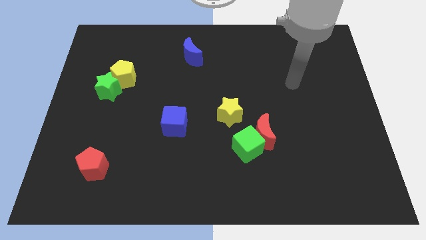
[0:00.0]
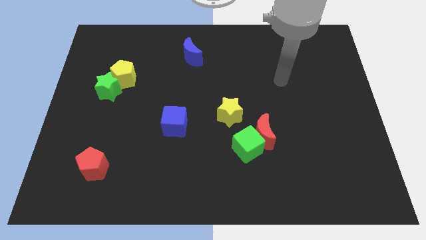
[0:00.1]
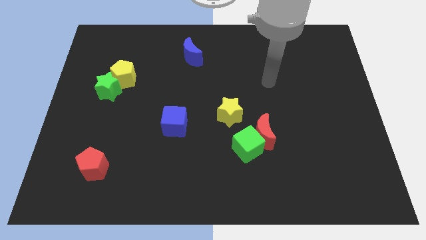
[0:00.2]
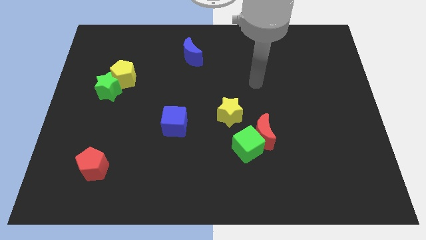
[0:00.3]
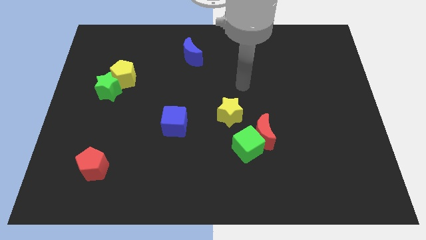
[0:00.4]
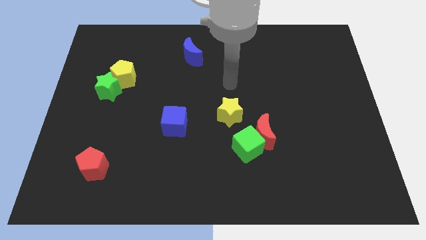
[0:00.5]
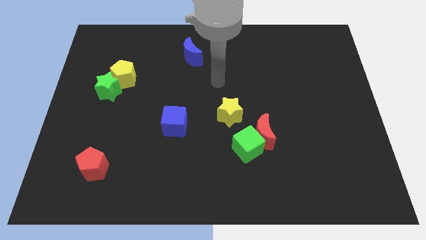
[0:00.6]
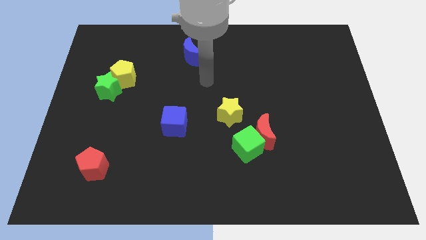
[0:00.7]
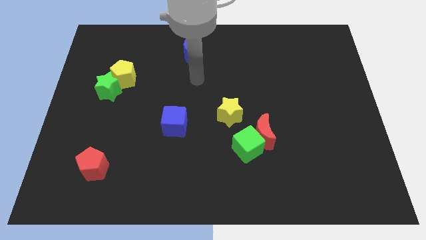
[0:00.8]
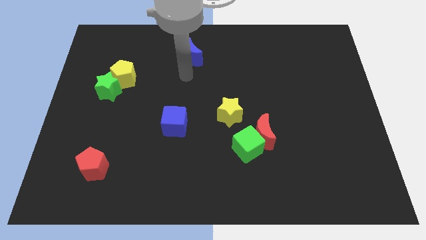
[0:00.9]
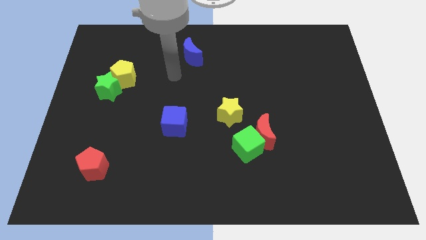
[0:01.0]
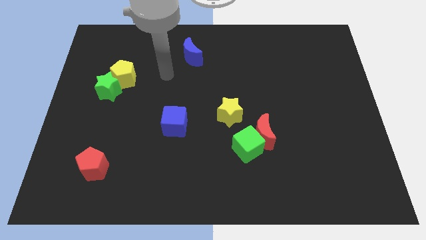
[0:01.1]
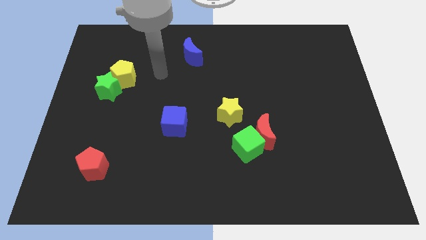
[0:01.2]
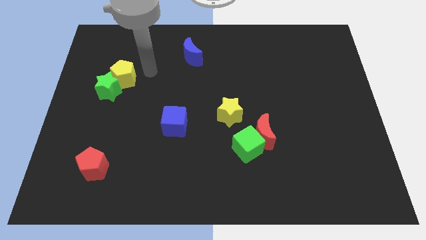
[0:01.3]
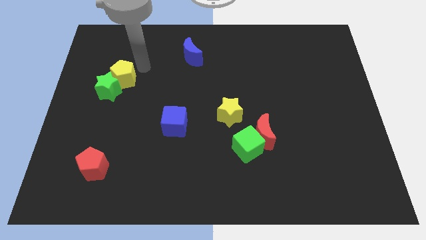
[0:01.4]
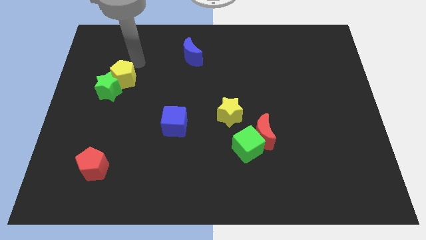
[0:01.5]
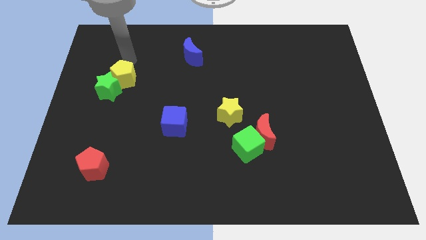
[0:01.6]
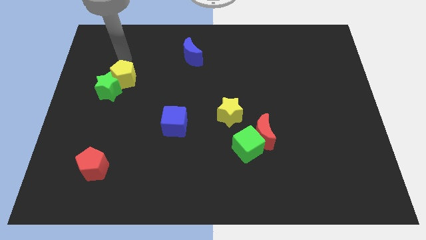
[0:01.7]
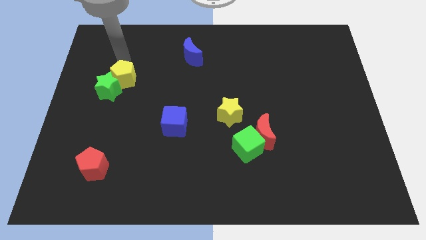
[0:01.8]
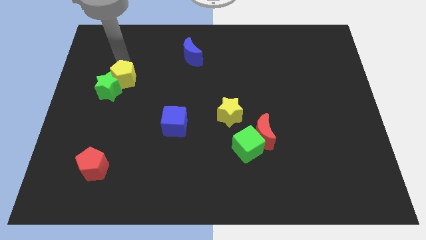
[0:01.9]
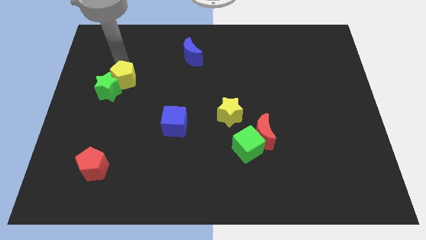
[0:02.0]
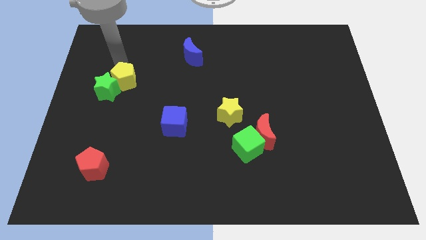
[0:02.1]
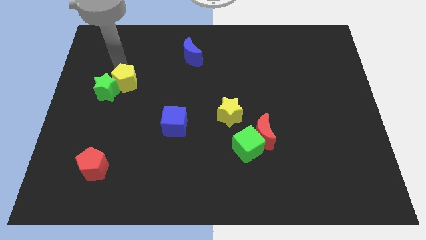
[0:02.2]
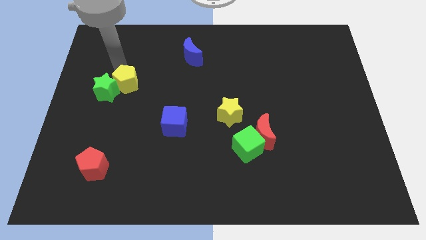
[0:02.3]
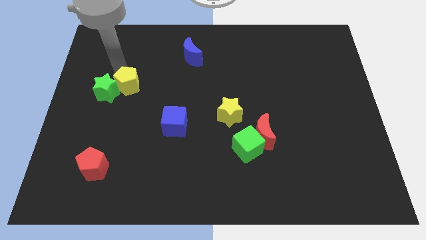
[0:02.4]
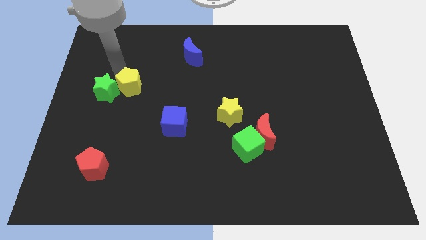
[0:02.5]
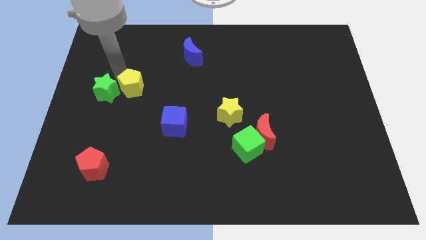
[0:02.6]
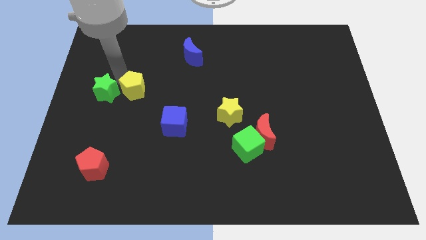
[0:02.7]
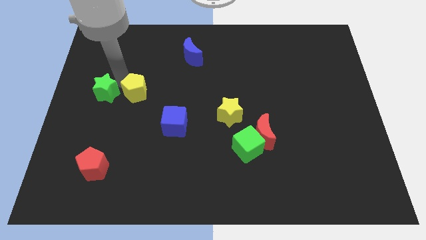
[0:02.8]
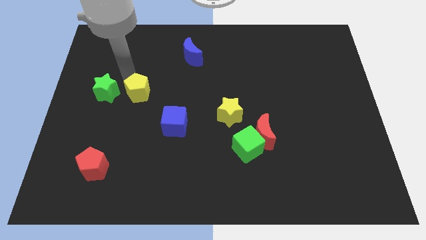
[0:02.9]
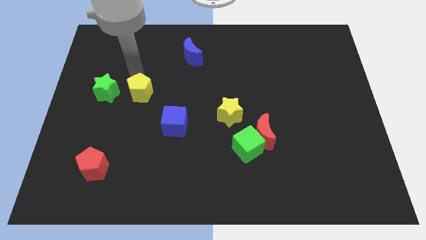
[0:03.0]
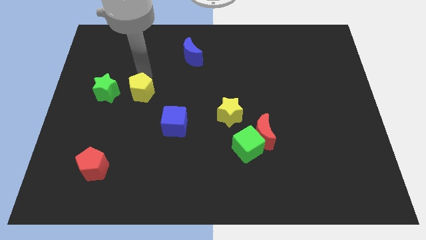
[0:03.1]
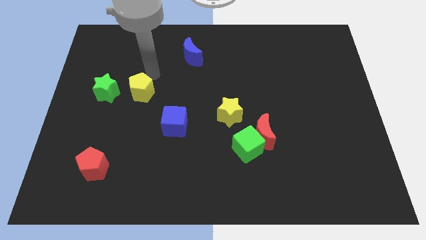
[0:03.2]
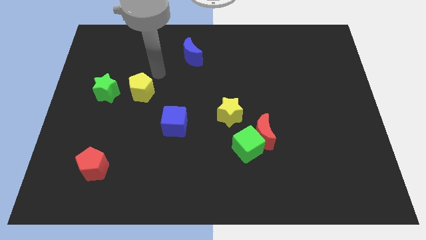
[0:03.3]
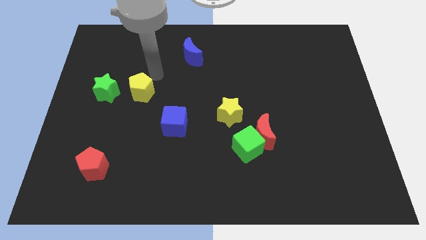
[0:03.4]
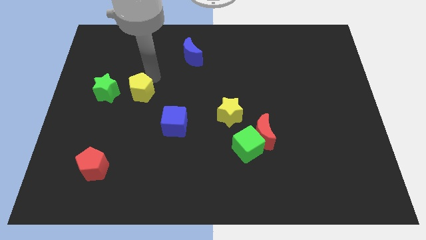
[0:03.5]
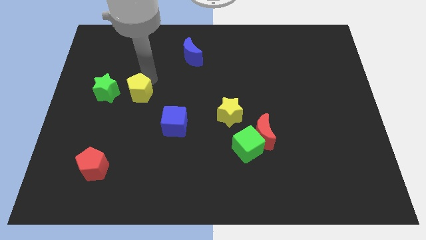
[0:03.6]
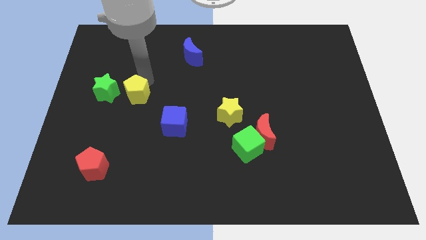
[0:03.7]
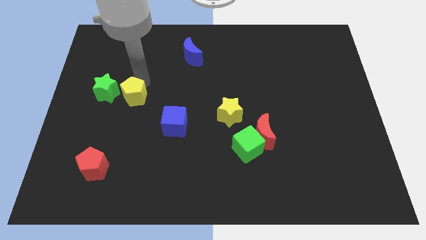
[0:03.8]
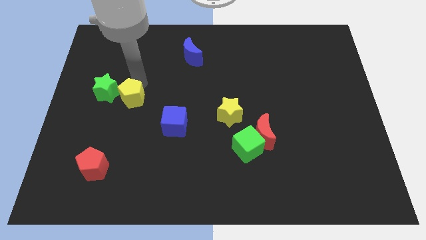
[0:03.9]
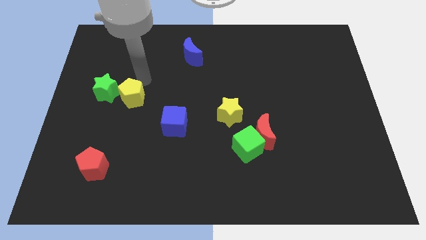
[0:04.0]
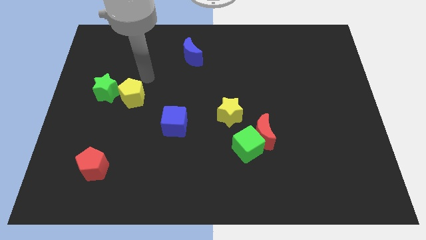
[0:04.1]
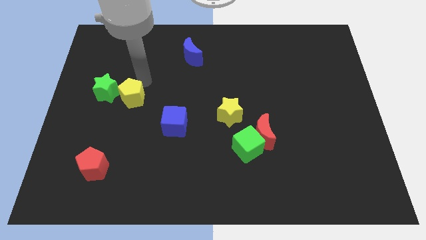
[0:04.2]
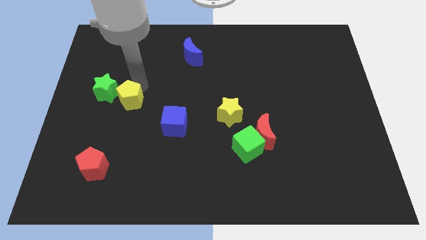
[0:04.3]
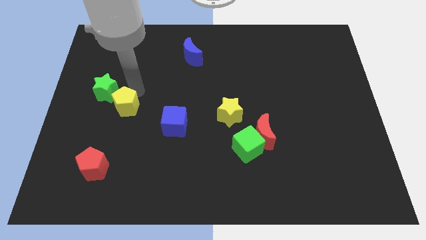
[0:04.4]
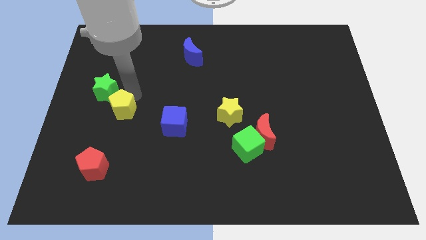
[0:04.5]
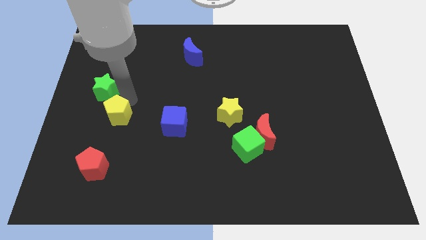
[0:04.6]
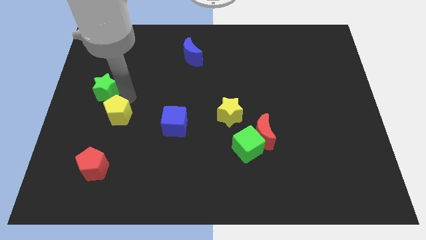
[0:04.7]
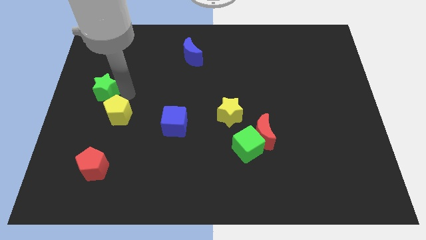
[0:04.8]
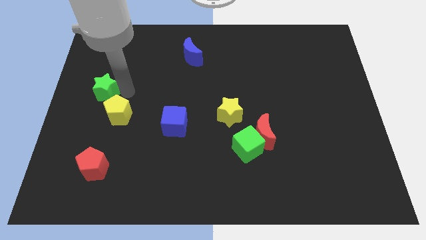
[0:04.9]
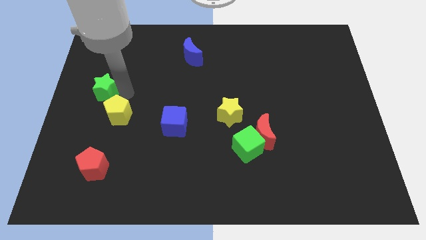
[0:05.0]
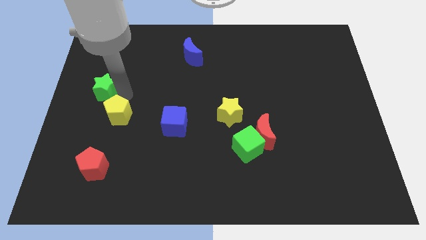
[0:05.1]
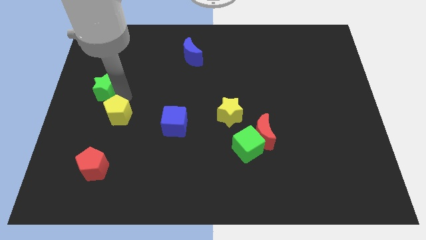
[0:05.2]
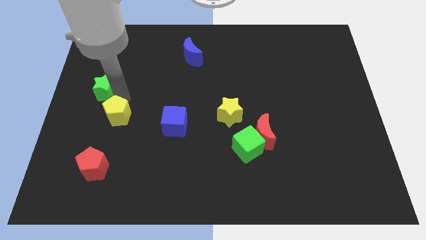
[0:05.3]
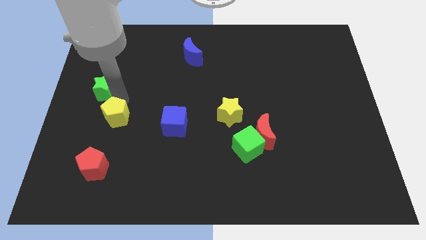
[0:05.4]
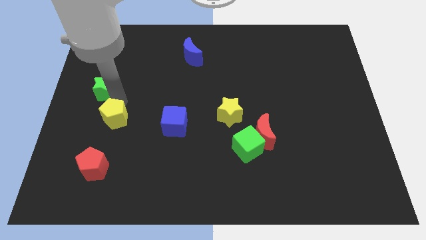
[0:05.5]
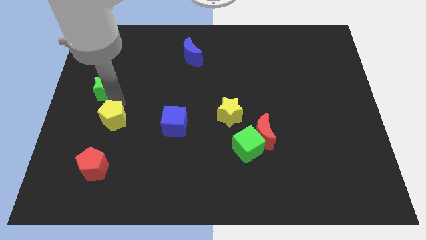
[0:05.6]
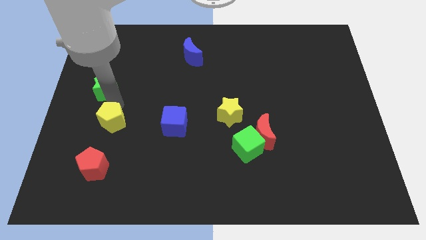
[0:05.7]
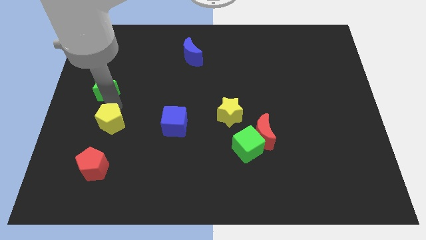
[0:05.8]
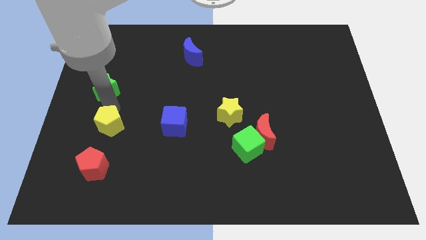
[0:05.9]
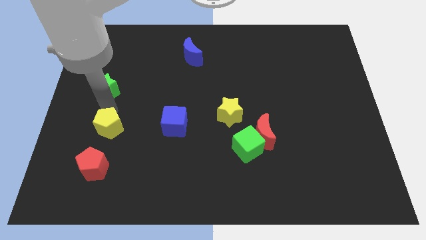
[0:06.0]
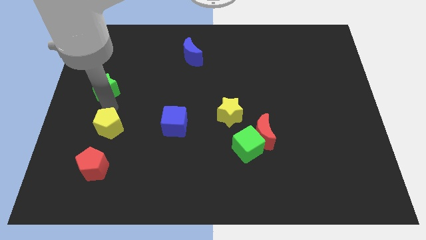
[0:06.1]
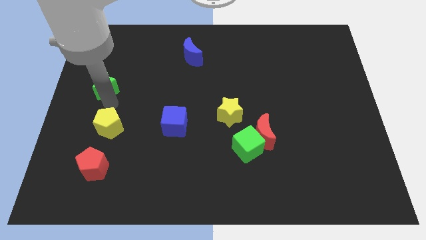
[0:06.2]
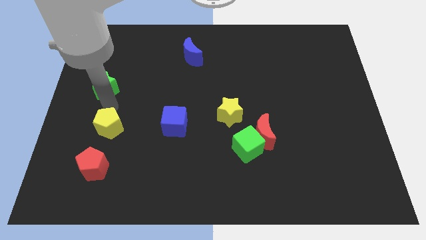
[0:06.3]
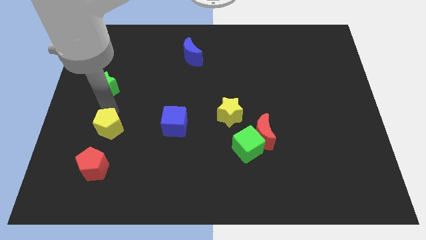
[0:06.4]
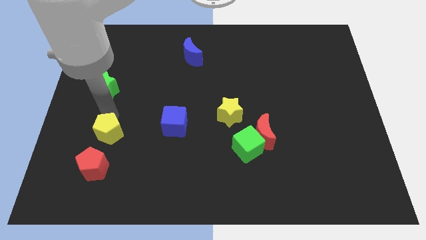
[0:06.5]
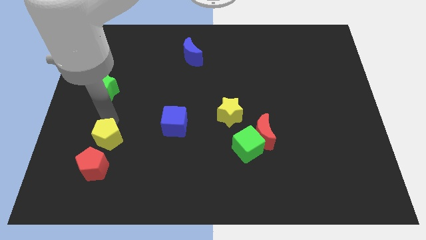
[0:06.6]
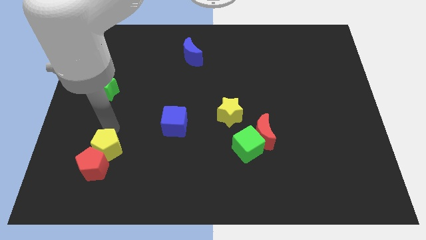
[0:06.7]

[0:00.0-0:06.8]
move the yellow pentagon towards the red pentagon

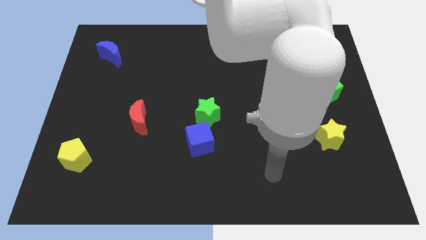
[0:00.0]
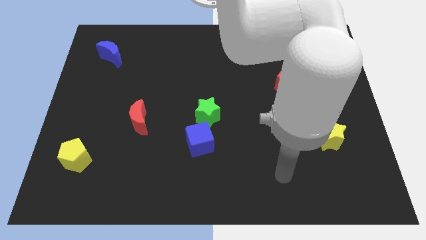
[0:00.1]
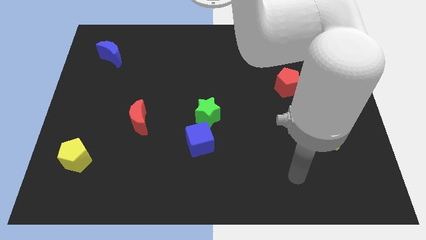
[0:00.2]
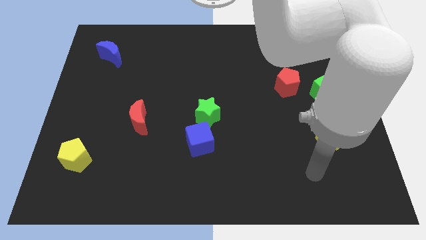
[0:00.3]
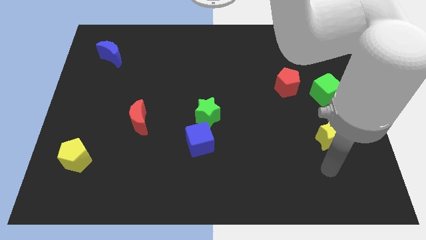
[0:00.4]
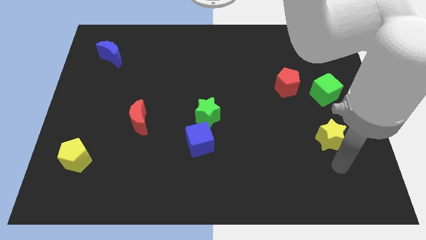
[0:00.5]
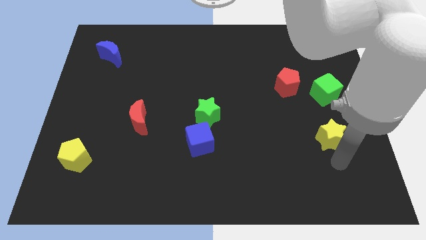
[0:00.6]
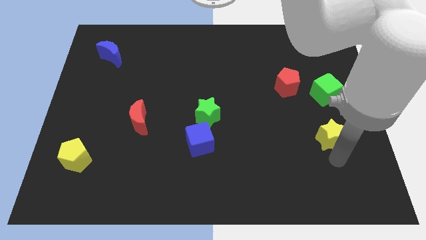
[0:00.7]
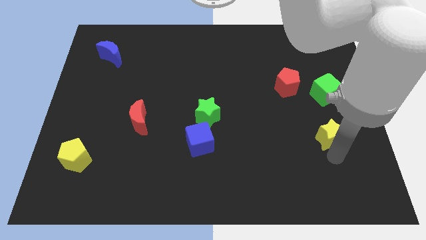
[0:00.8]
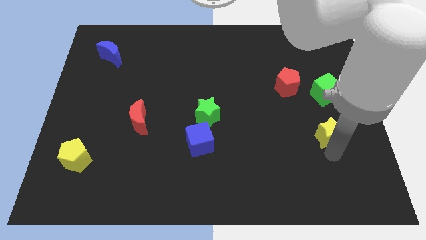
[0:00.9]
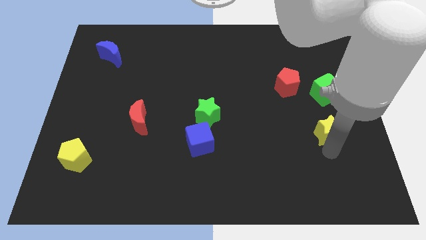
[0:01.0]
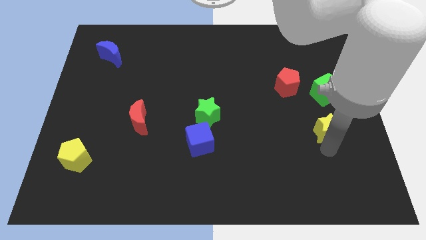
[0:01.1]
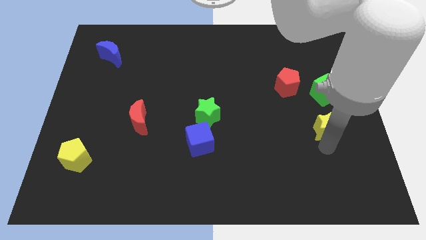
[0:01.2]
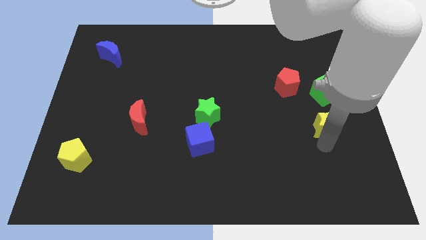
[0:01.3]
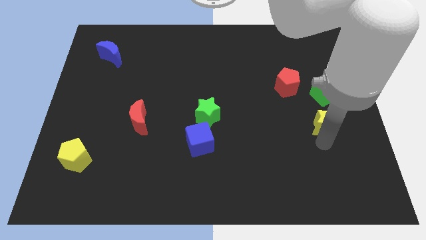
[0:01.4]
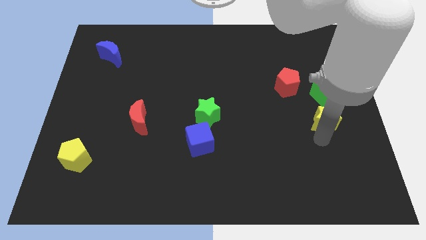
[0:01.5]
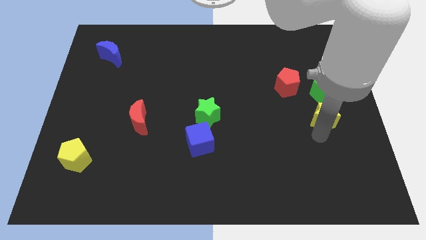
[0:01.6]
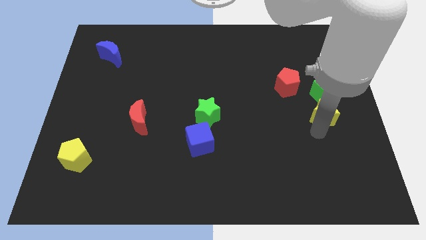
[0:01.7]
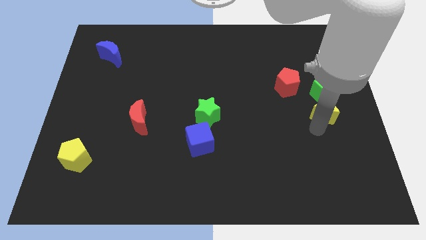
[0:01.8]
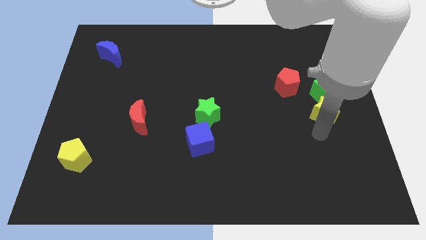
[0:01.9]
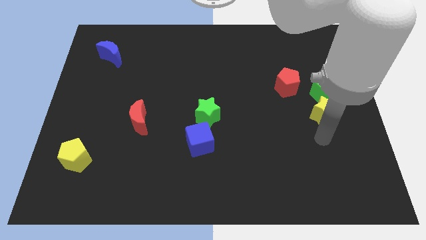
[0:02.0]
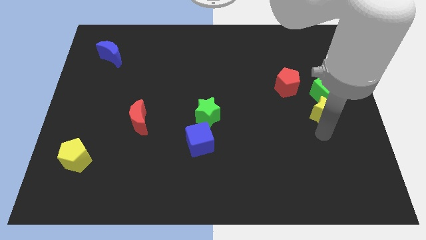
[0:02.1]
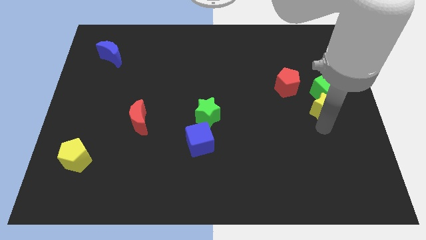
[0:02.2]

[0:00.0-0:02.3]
put the yellow star towards the green cube
